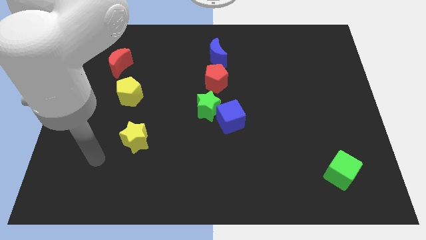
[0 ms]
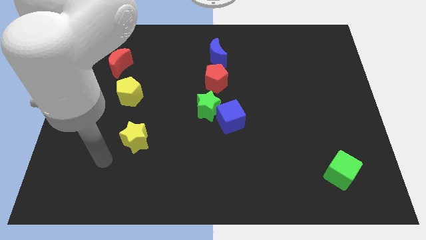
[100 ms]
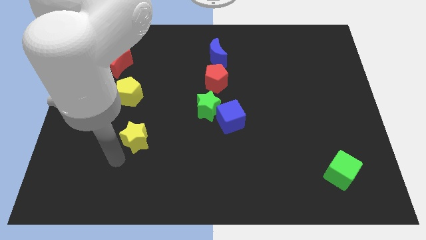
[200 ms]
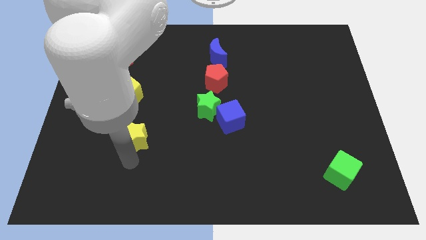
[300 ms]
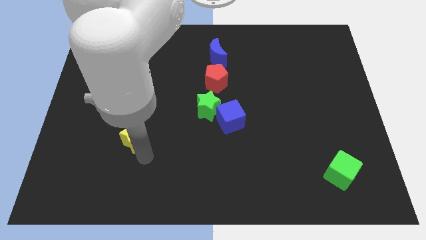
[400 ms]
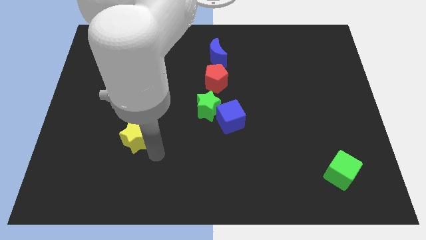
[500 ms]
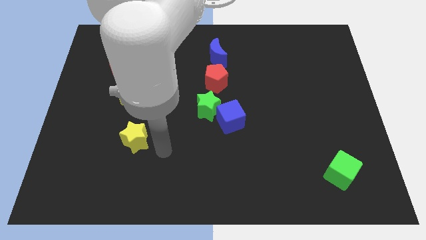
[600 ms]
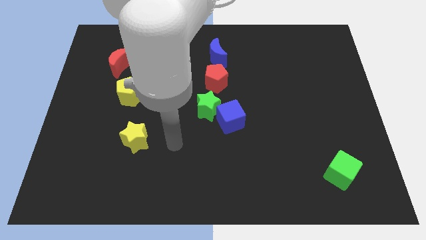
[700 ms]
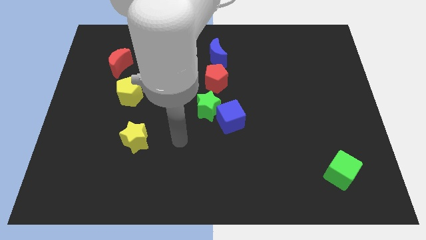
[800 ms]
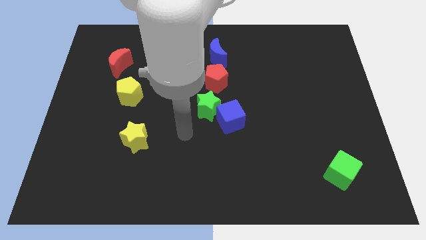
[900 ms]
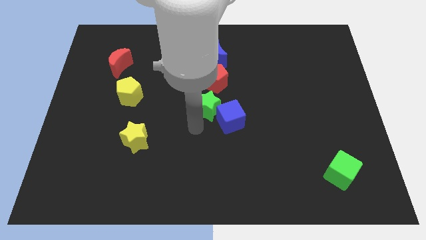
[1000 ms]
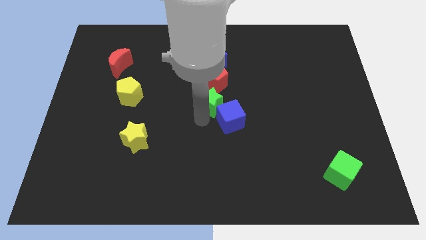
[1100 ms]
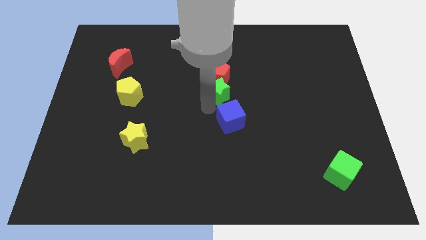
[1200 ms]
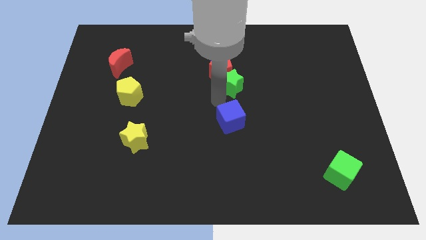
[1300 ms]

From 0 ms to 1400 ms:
move the blue cube away from the green star

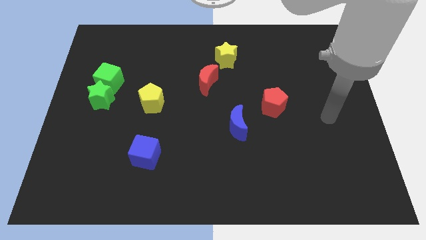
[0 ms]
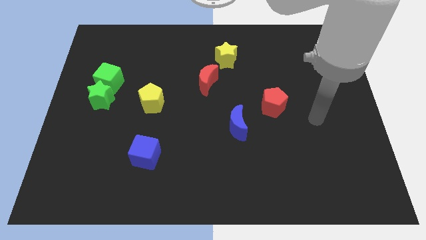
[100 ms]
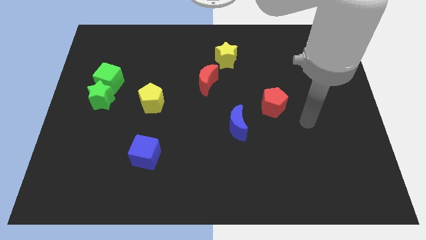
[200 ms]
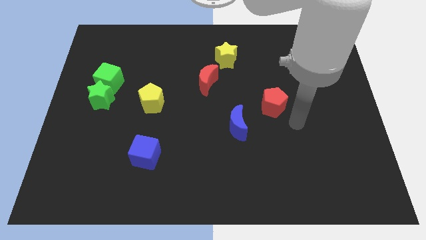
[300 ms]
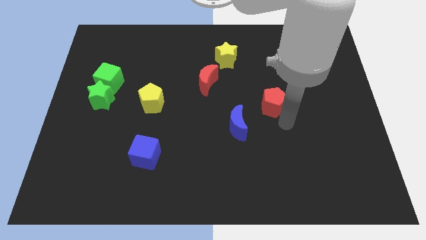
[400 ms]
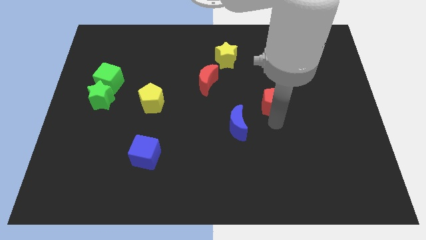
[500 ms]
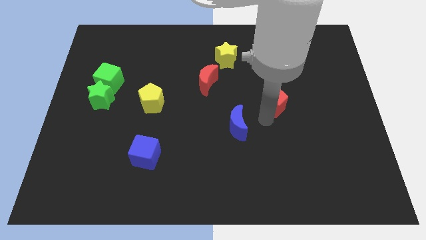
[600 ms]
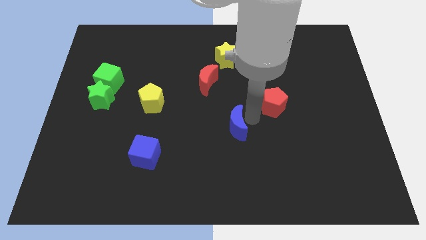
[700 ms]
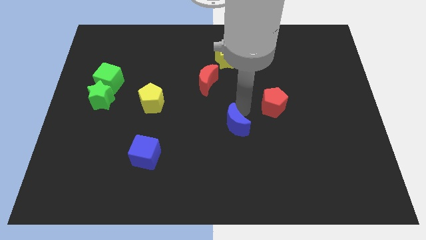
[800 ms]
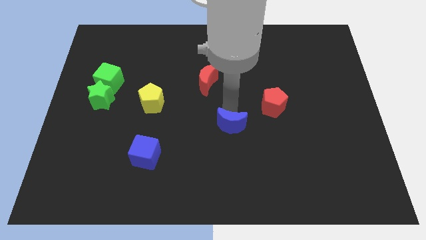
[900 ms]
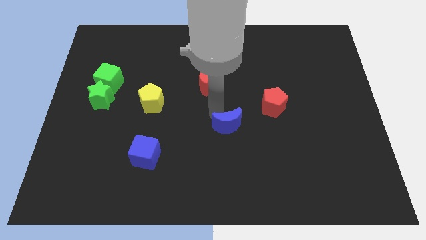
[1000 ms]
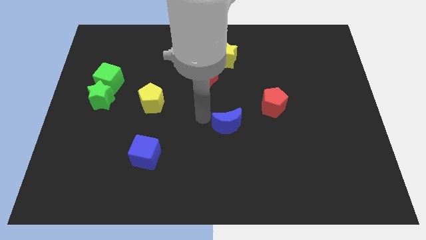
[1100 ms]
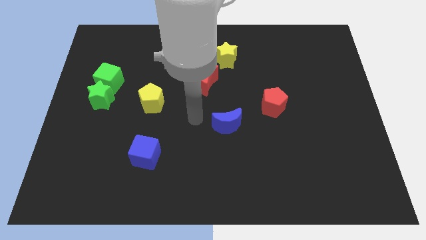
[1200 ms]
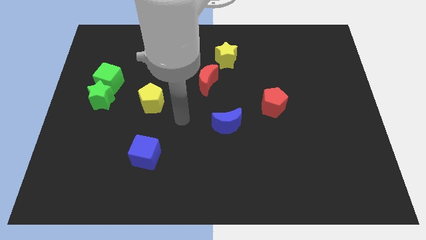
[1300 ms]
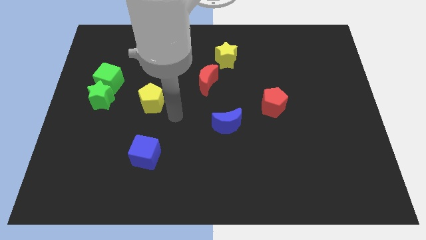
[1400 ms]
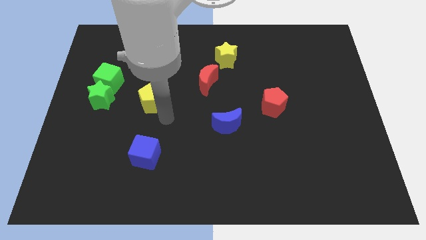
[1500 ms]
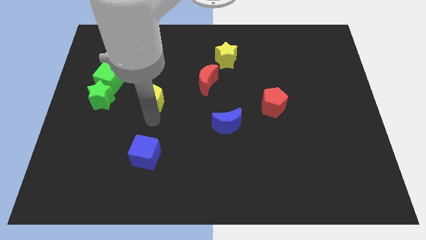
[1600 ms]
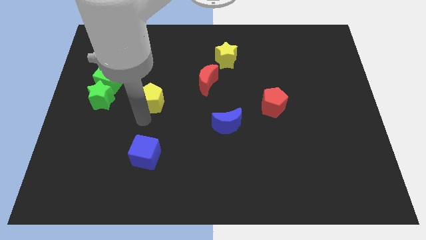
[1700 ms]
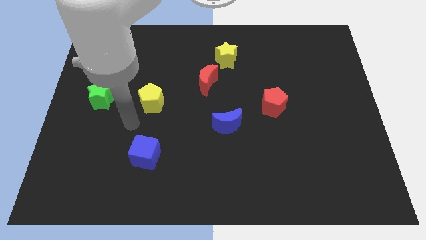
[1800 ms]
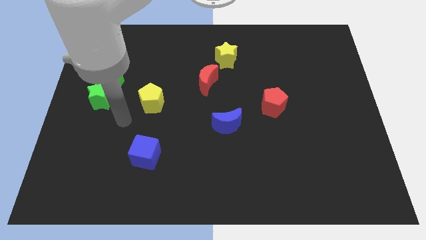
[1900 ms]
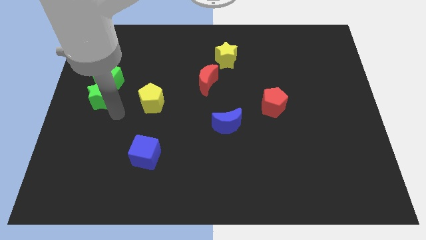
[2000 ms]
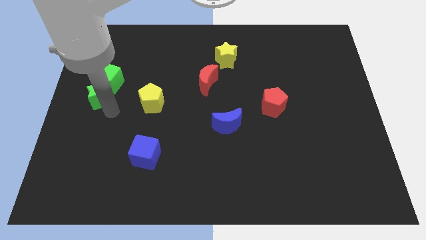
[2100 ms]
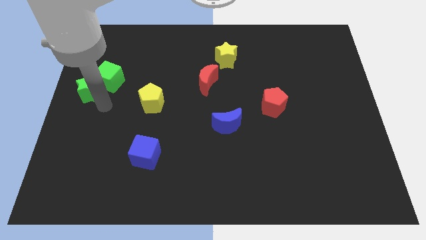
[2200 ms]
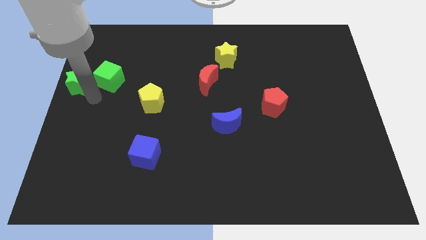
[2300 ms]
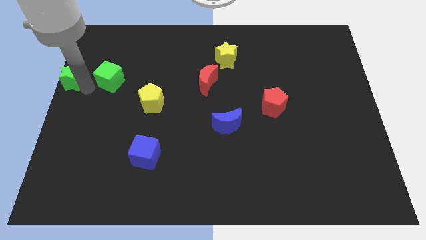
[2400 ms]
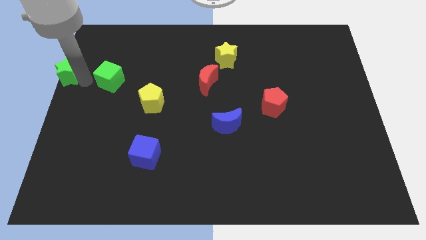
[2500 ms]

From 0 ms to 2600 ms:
pull the green cube apart from the green star

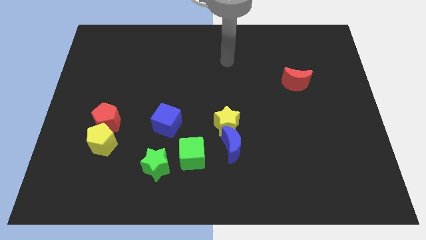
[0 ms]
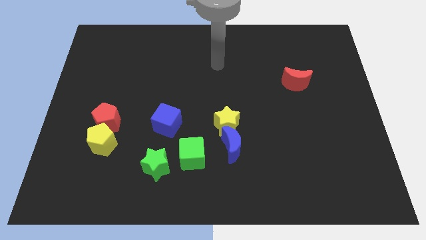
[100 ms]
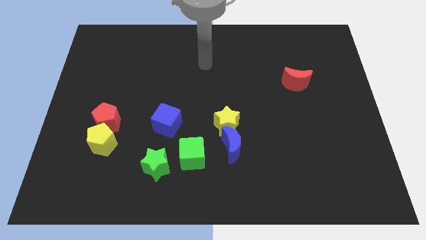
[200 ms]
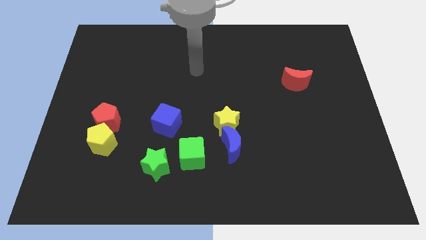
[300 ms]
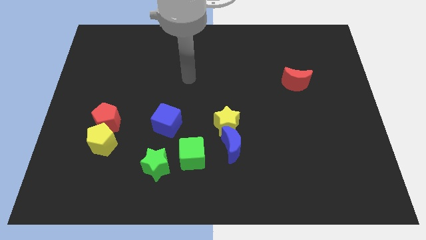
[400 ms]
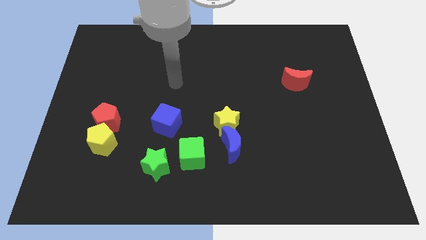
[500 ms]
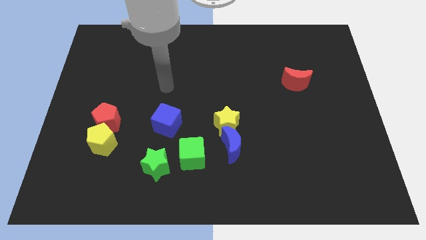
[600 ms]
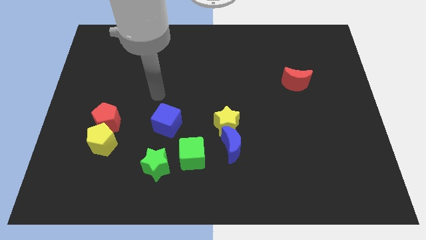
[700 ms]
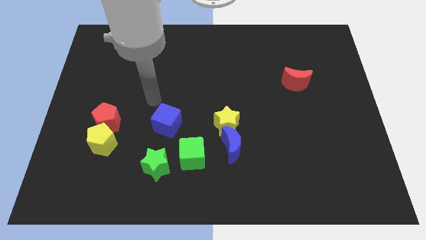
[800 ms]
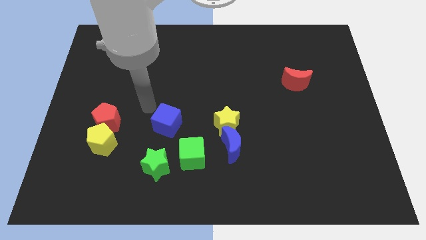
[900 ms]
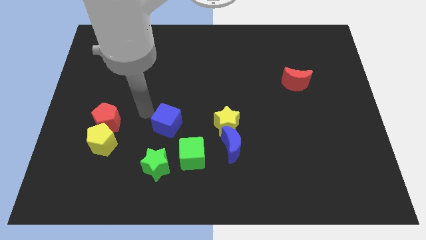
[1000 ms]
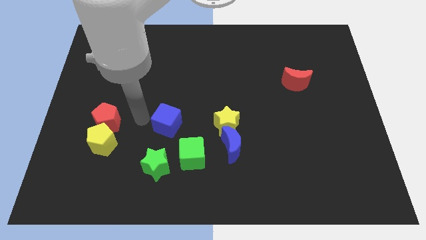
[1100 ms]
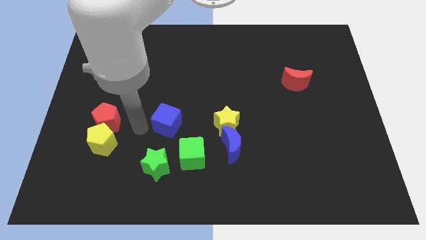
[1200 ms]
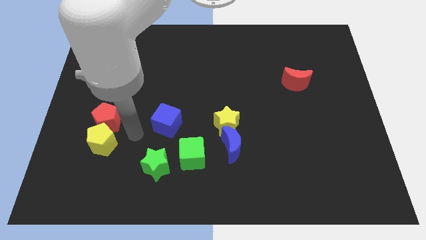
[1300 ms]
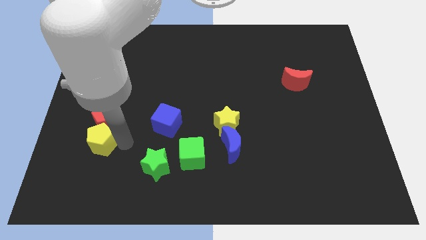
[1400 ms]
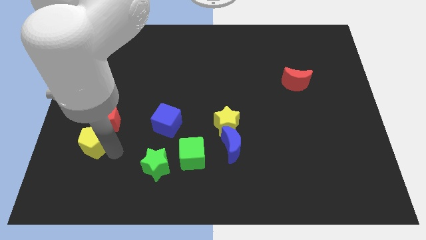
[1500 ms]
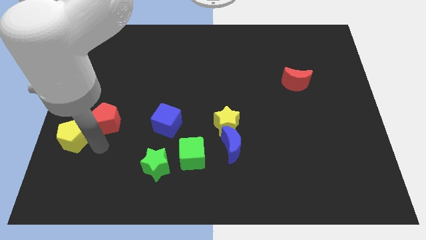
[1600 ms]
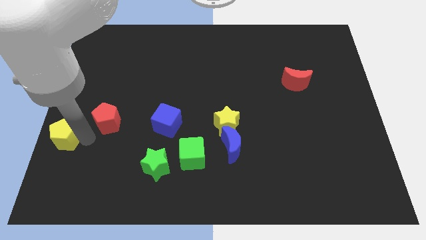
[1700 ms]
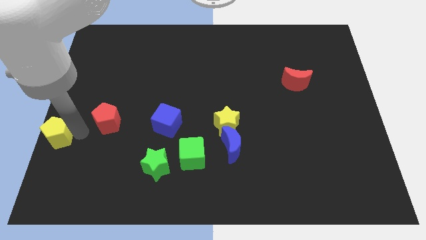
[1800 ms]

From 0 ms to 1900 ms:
pull the red pentagon apart from the yellow pentagon

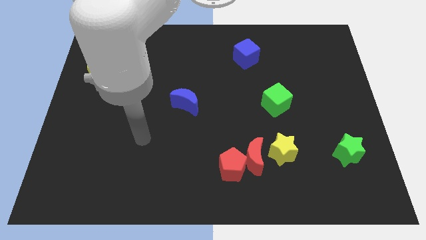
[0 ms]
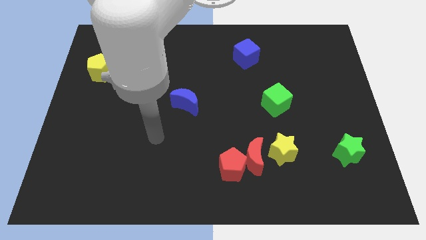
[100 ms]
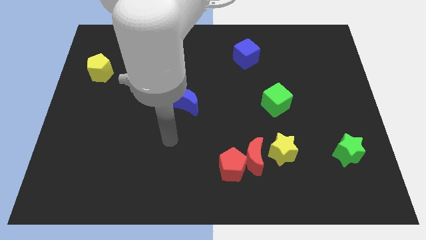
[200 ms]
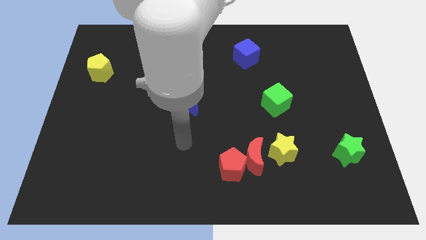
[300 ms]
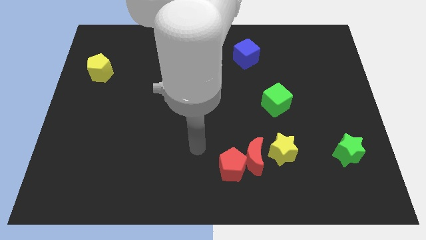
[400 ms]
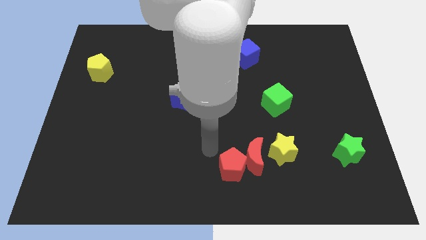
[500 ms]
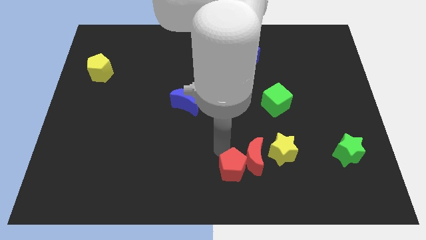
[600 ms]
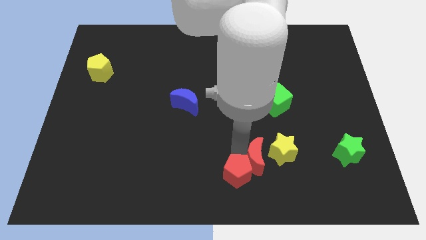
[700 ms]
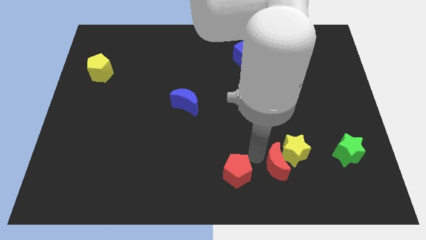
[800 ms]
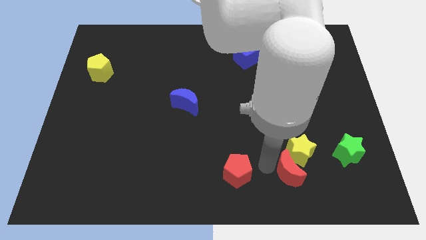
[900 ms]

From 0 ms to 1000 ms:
pull the red pentagon apart from the red moon

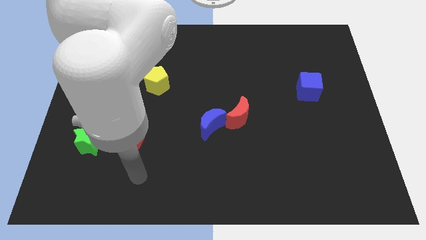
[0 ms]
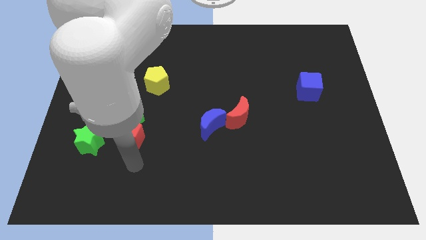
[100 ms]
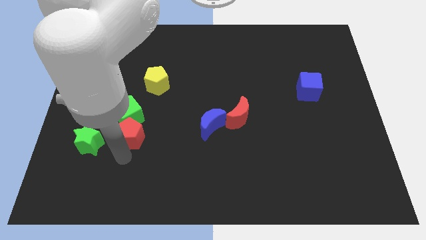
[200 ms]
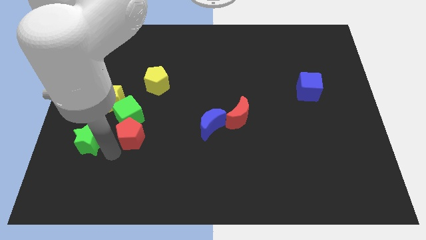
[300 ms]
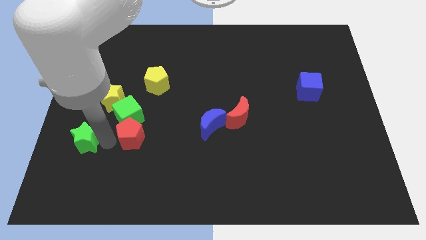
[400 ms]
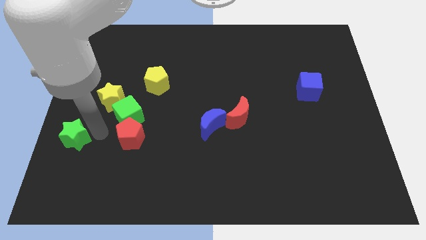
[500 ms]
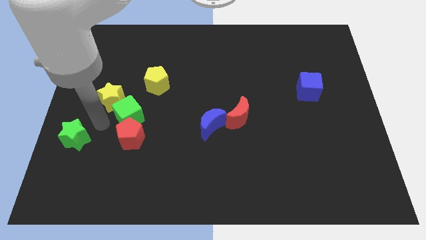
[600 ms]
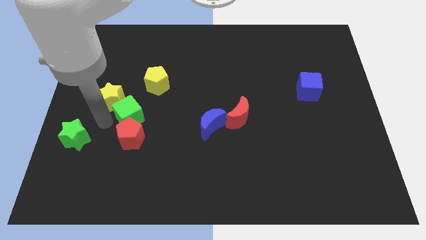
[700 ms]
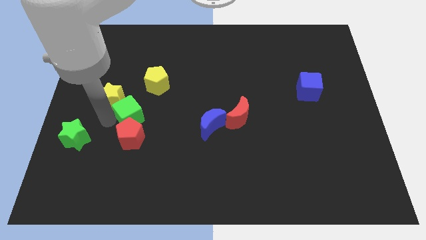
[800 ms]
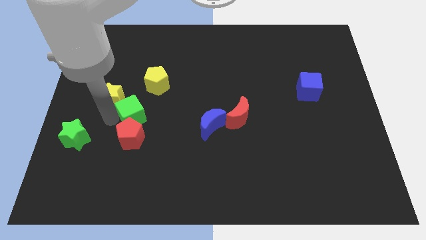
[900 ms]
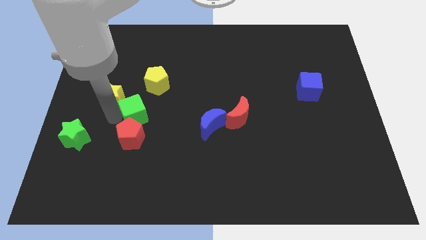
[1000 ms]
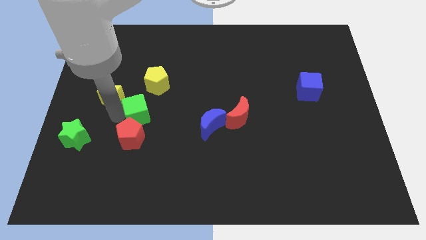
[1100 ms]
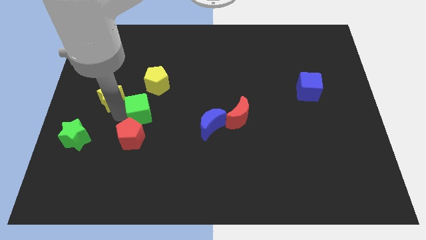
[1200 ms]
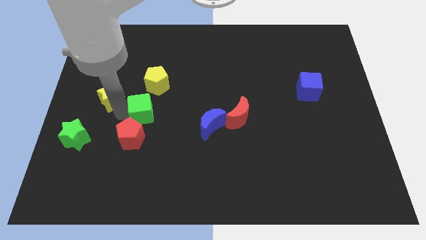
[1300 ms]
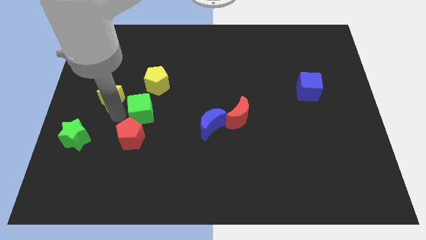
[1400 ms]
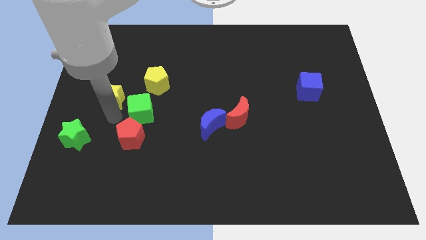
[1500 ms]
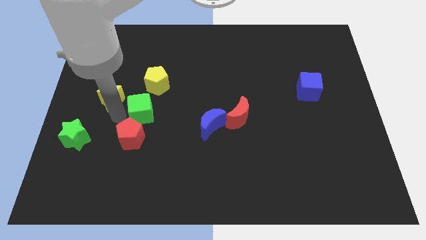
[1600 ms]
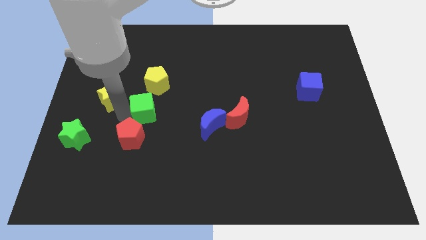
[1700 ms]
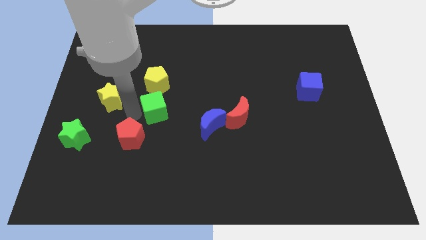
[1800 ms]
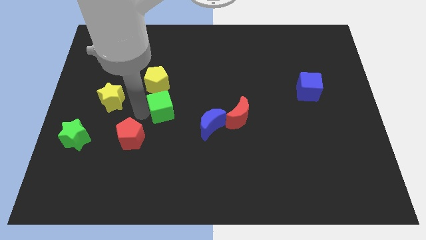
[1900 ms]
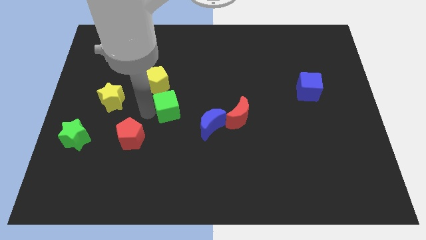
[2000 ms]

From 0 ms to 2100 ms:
move the green cube away from the red pentagon and yellow star

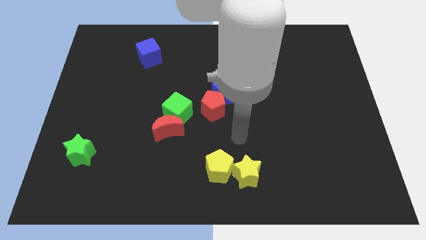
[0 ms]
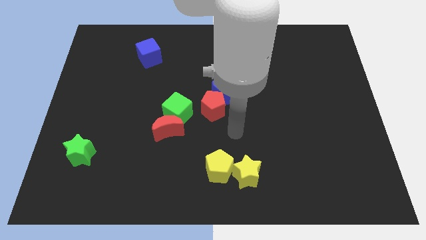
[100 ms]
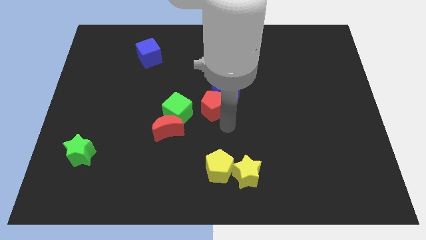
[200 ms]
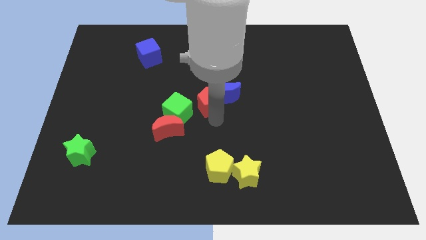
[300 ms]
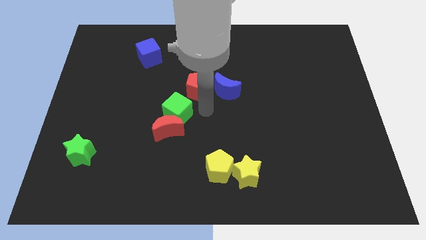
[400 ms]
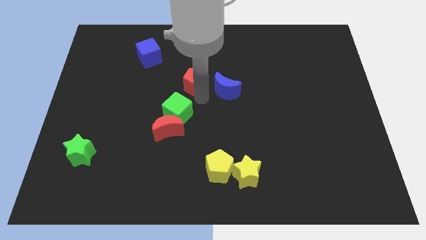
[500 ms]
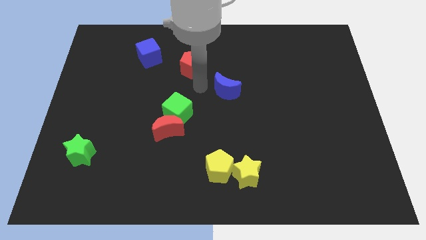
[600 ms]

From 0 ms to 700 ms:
move the blue moon away from the red pentagon
